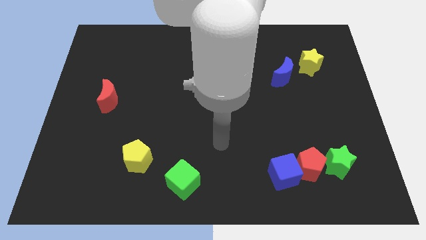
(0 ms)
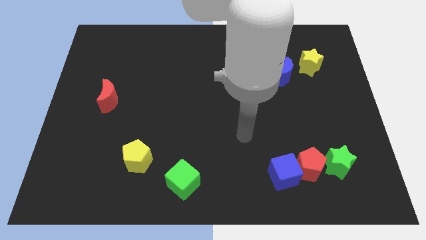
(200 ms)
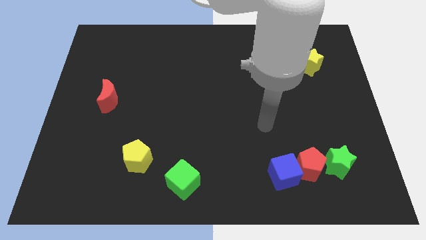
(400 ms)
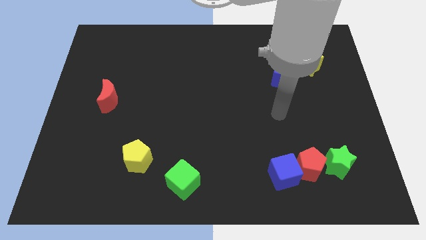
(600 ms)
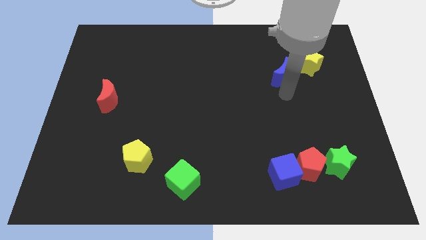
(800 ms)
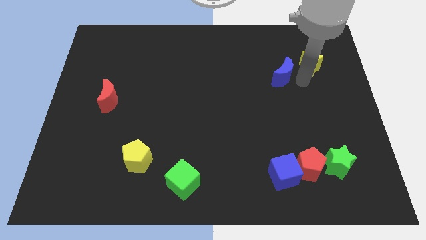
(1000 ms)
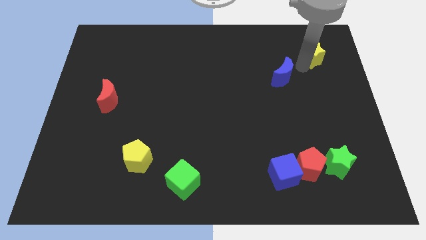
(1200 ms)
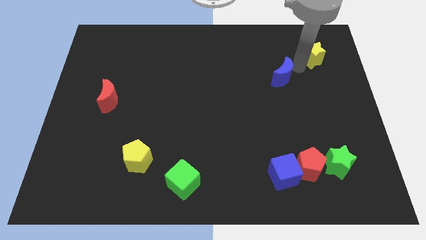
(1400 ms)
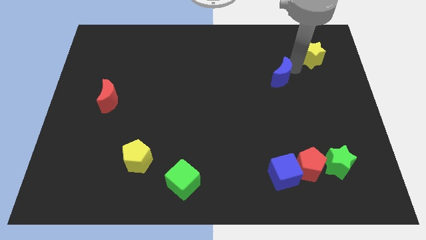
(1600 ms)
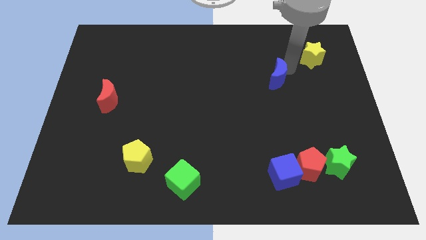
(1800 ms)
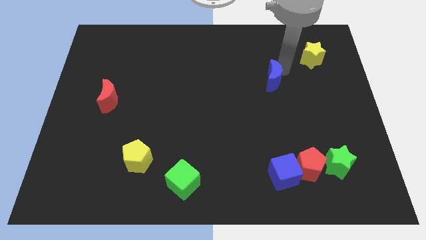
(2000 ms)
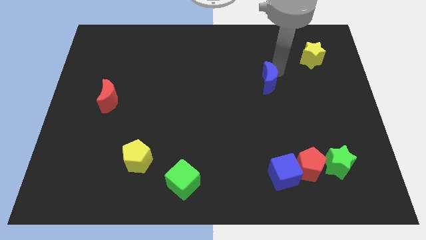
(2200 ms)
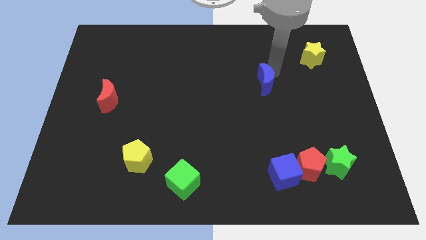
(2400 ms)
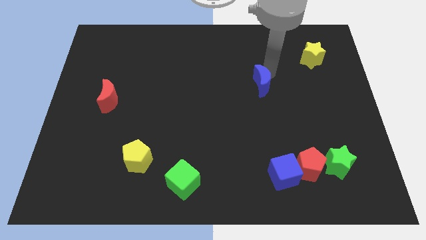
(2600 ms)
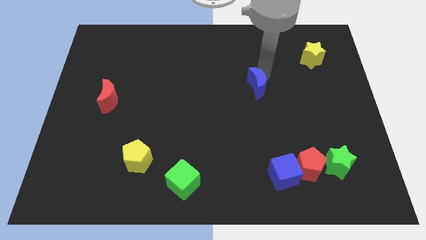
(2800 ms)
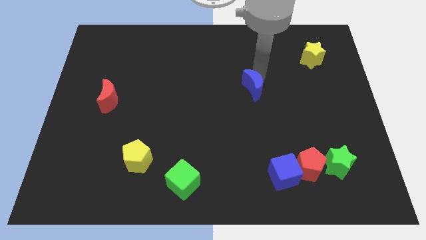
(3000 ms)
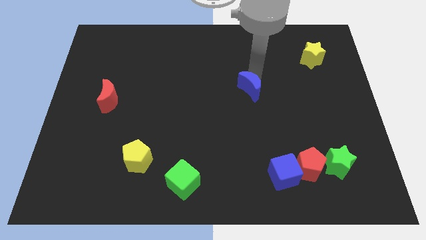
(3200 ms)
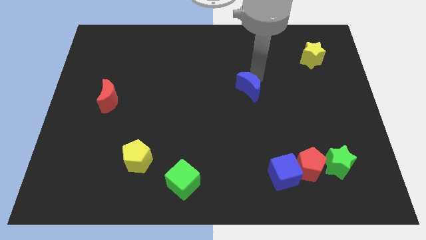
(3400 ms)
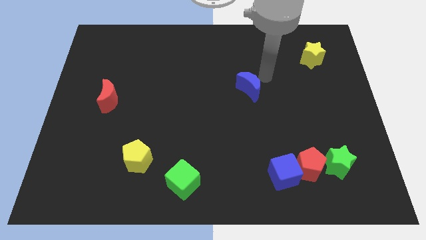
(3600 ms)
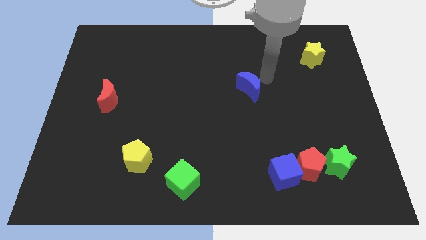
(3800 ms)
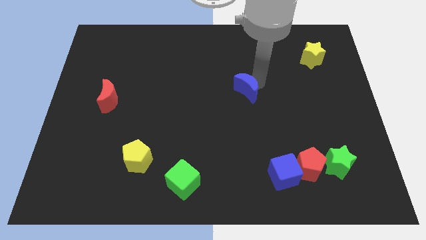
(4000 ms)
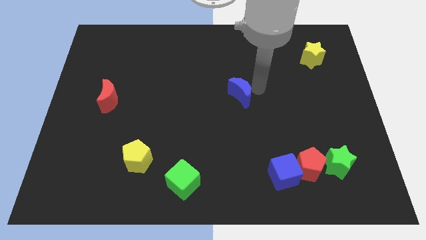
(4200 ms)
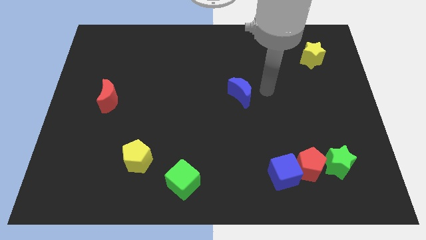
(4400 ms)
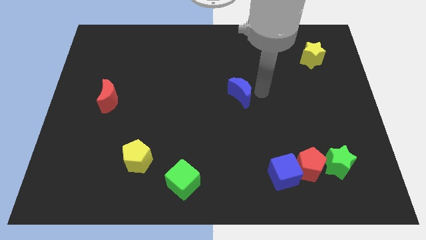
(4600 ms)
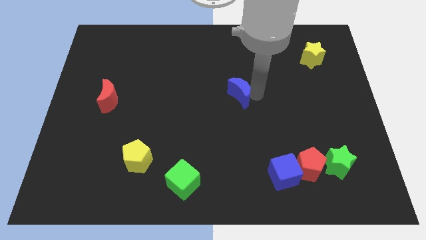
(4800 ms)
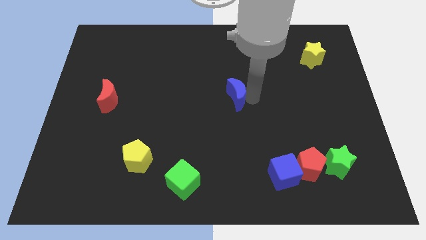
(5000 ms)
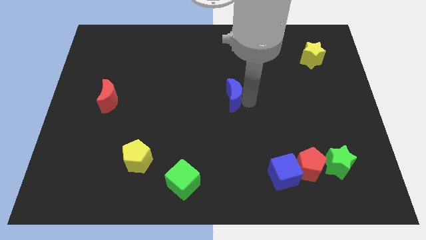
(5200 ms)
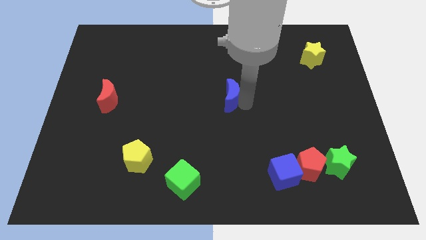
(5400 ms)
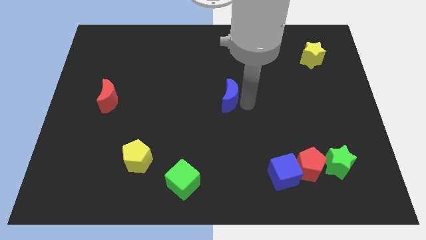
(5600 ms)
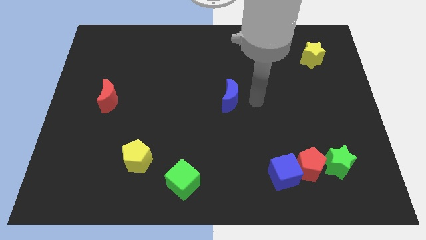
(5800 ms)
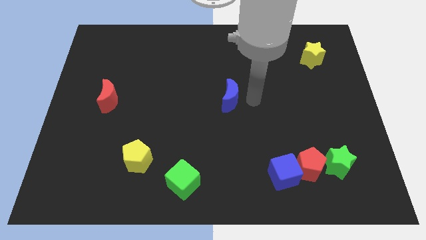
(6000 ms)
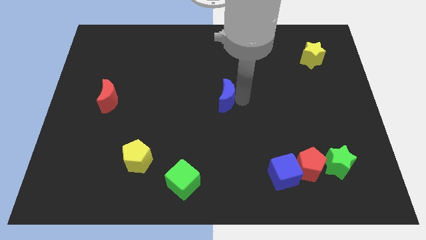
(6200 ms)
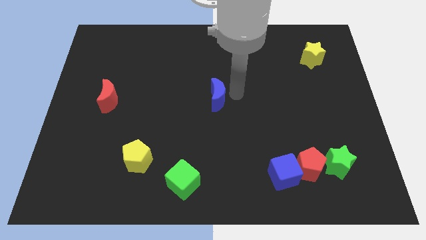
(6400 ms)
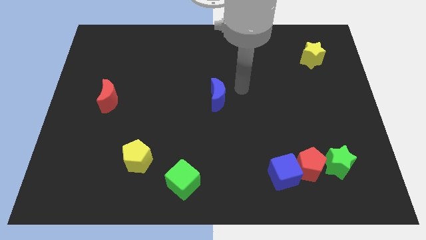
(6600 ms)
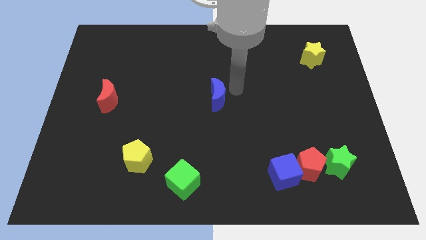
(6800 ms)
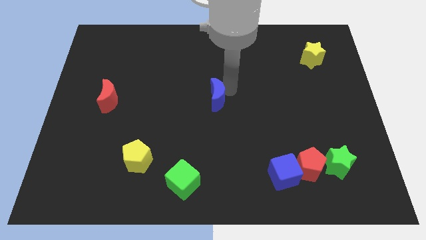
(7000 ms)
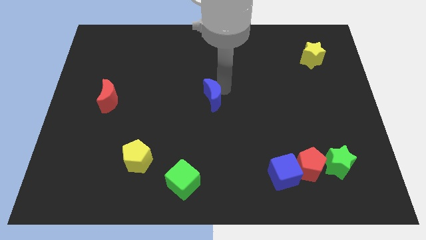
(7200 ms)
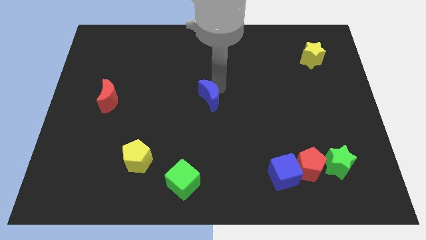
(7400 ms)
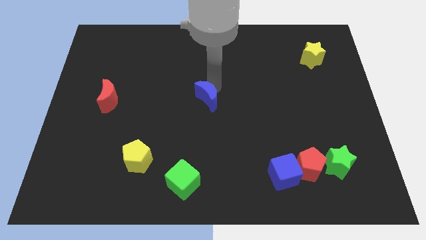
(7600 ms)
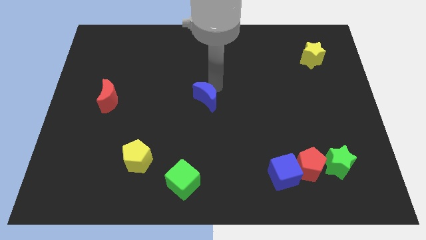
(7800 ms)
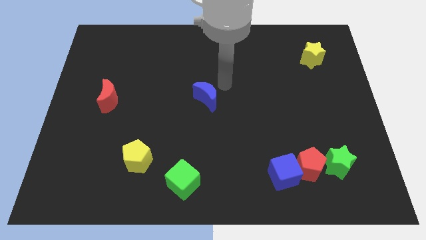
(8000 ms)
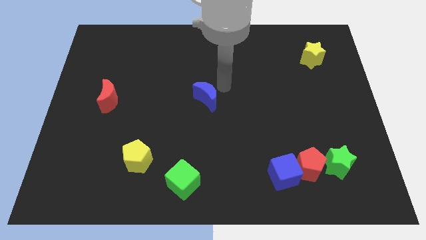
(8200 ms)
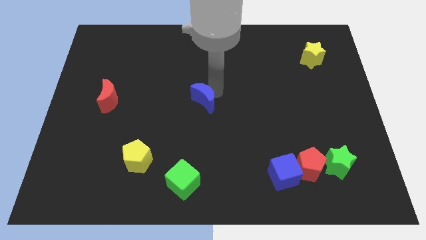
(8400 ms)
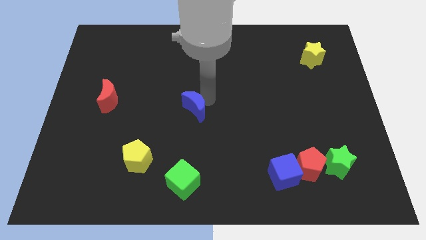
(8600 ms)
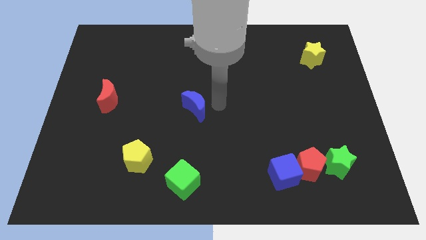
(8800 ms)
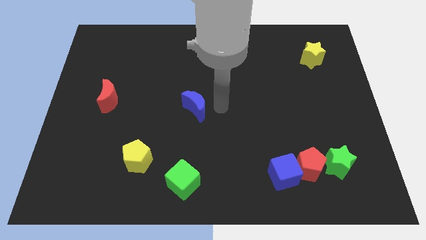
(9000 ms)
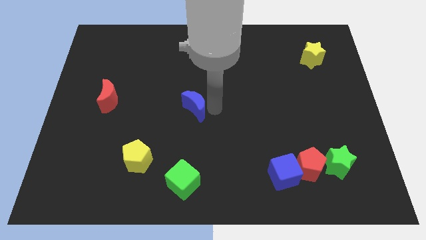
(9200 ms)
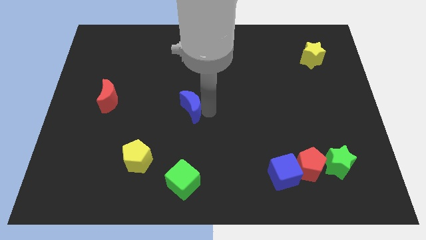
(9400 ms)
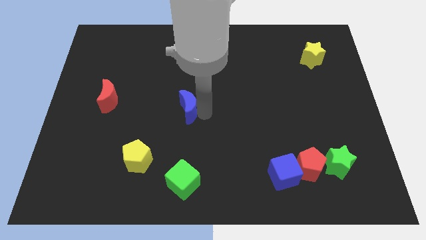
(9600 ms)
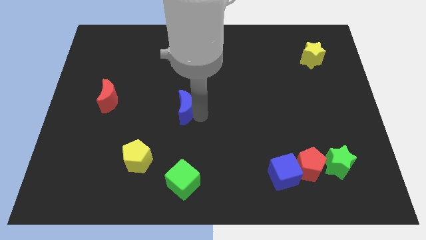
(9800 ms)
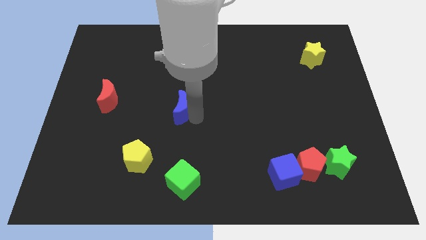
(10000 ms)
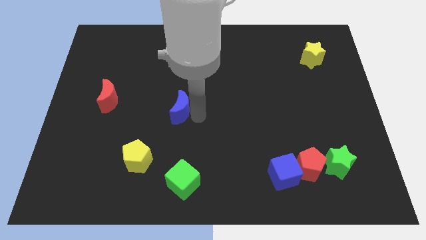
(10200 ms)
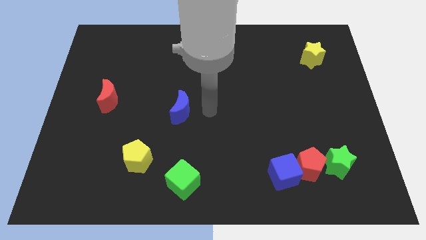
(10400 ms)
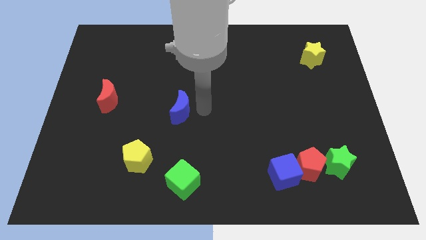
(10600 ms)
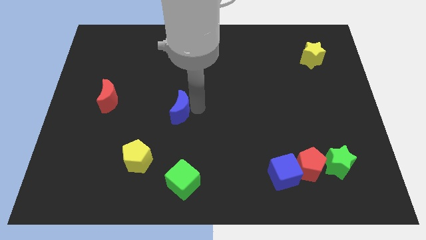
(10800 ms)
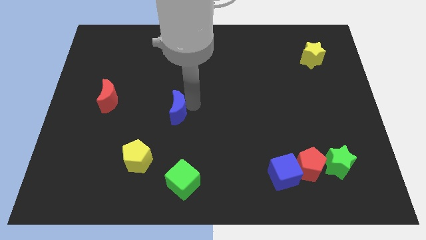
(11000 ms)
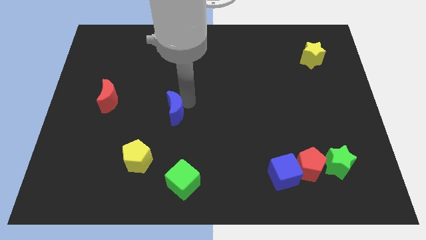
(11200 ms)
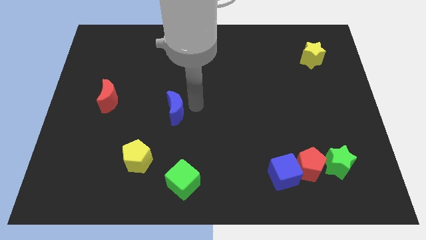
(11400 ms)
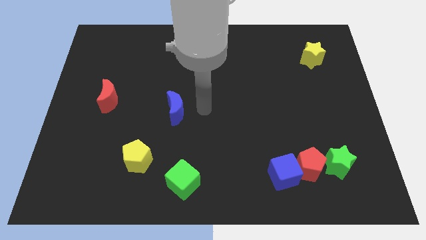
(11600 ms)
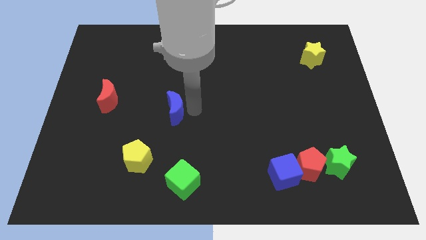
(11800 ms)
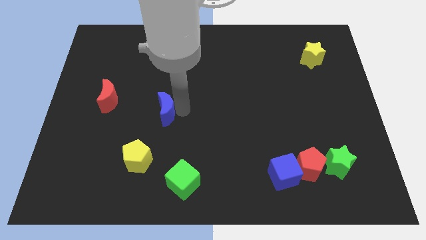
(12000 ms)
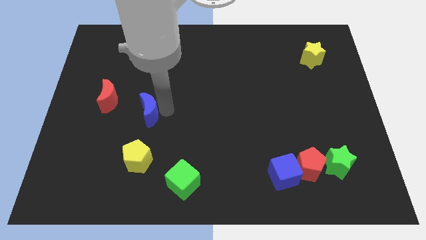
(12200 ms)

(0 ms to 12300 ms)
push the blue moon diagonally down and to the right of the red moon

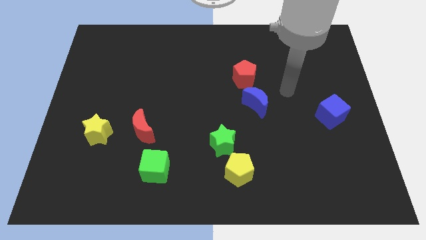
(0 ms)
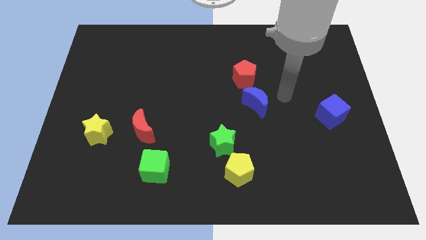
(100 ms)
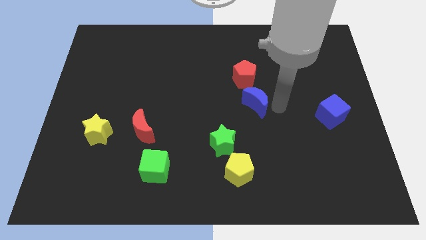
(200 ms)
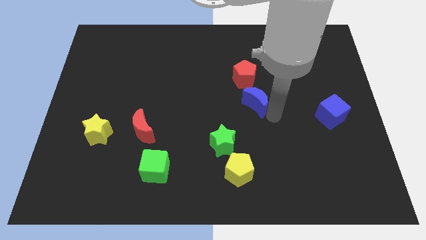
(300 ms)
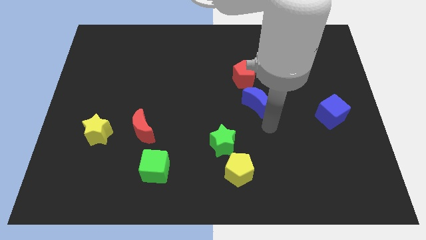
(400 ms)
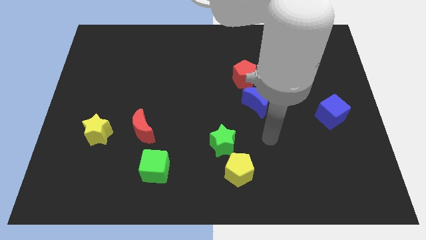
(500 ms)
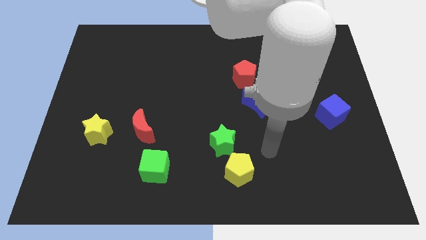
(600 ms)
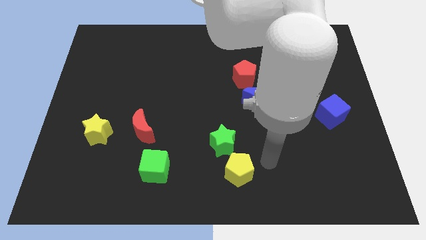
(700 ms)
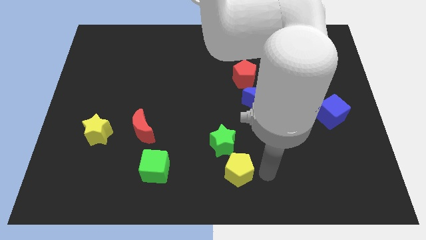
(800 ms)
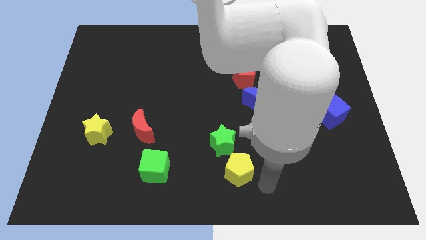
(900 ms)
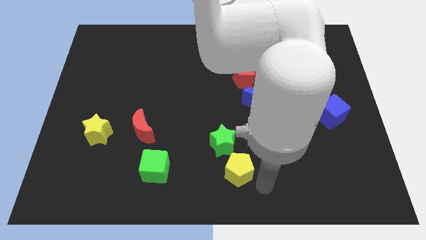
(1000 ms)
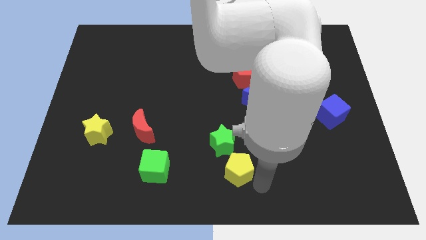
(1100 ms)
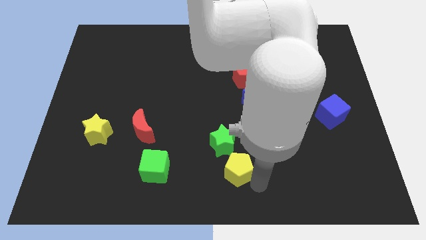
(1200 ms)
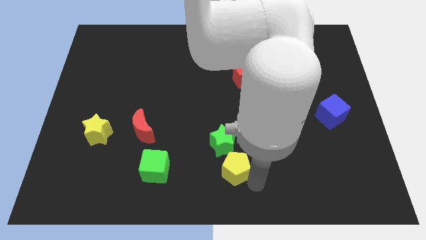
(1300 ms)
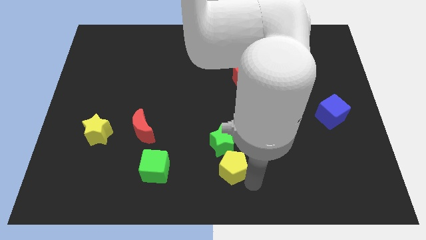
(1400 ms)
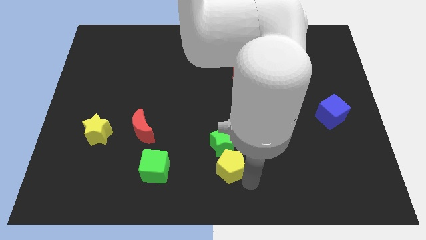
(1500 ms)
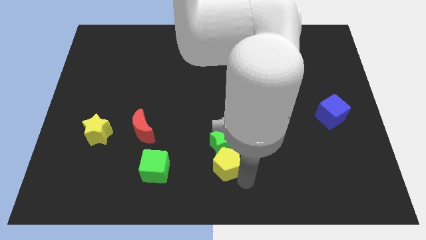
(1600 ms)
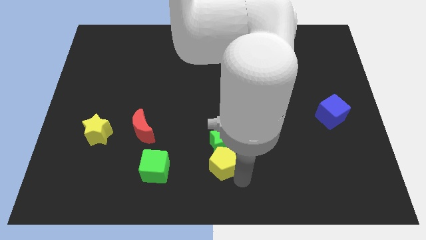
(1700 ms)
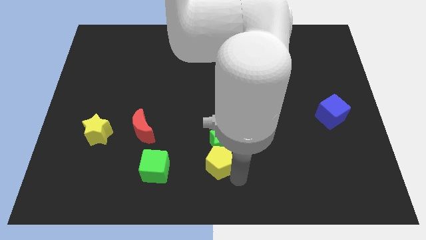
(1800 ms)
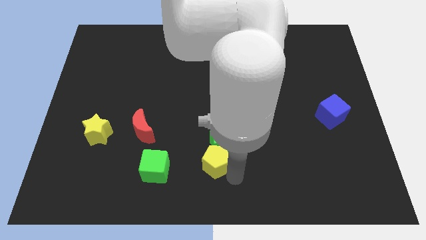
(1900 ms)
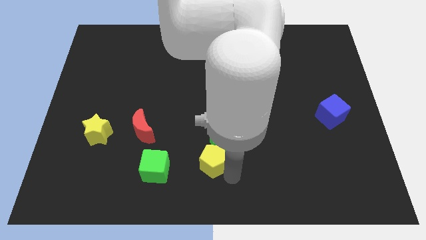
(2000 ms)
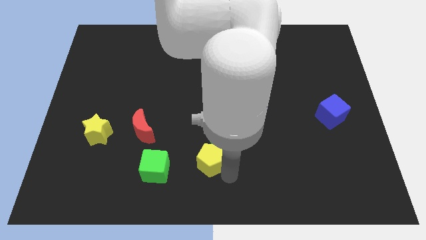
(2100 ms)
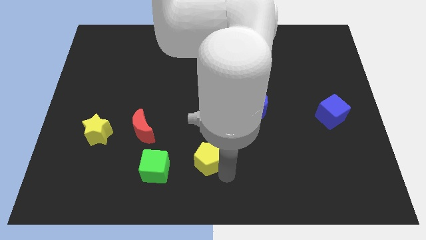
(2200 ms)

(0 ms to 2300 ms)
move the yellow pentagon to the left side of the green star
